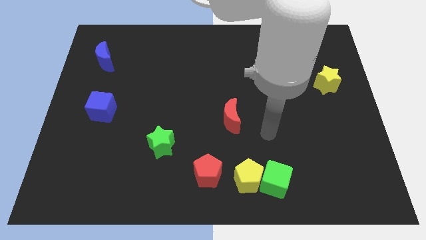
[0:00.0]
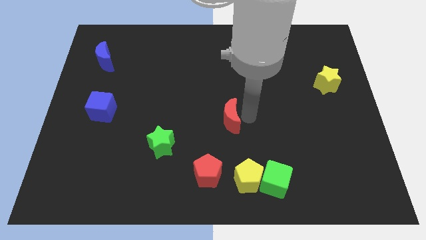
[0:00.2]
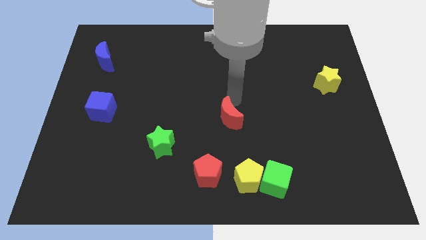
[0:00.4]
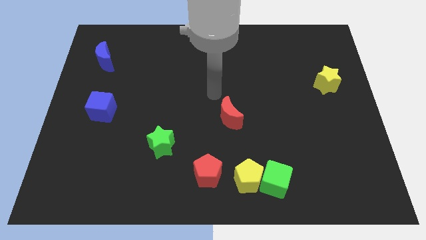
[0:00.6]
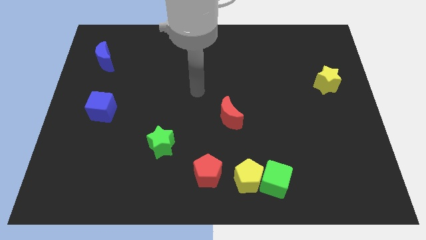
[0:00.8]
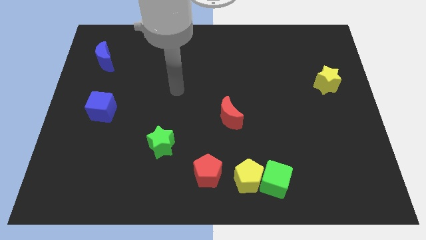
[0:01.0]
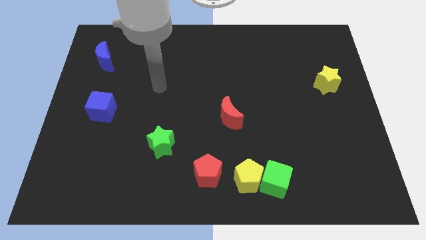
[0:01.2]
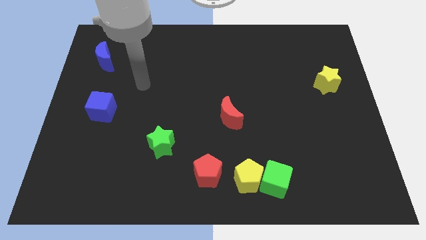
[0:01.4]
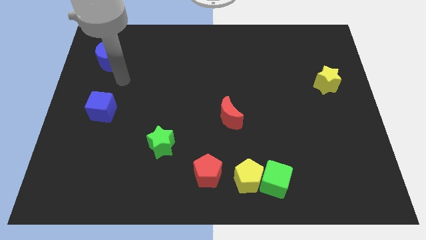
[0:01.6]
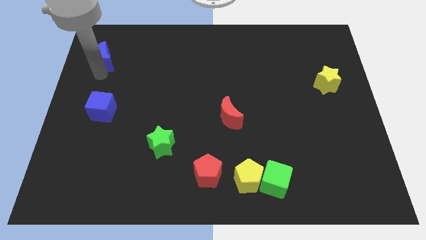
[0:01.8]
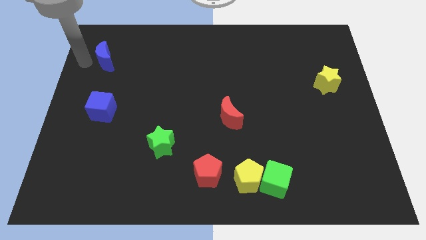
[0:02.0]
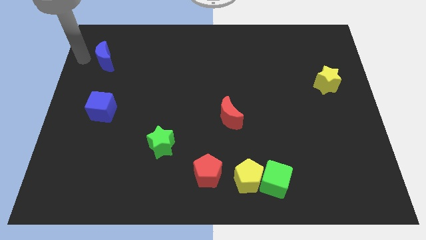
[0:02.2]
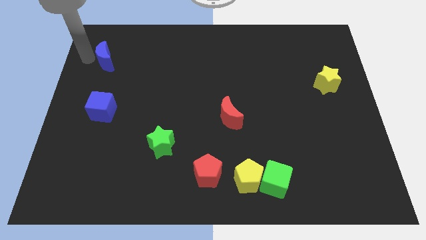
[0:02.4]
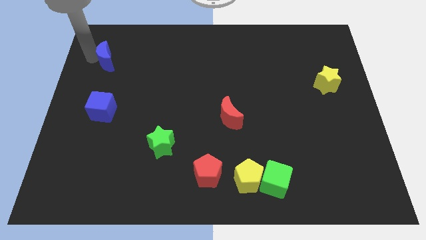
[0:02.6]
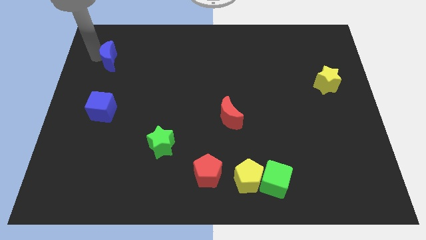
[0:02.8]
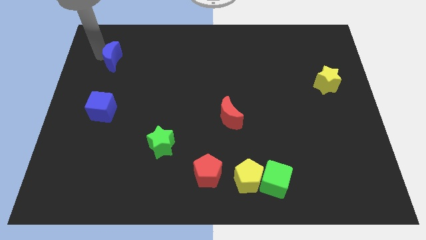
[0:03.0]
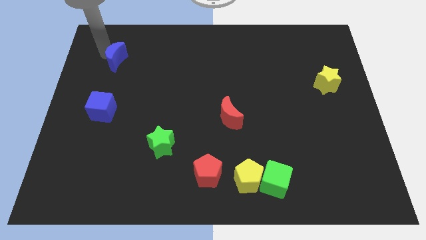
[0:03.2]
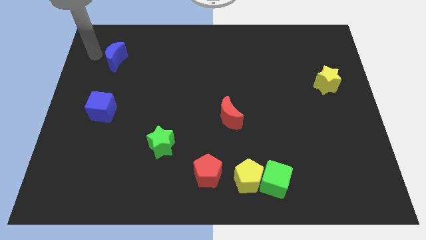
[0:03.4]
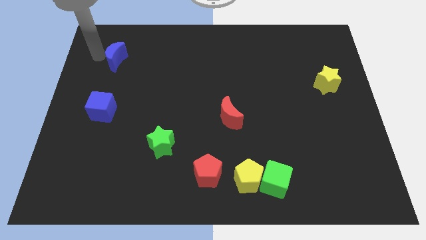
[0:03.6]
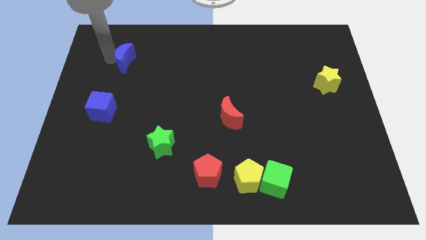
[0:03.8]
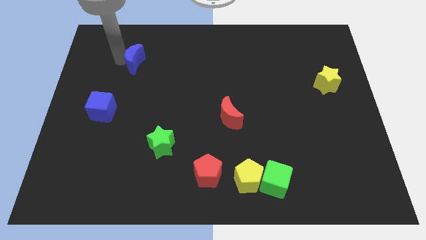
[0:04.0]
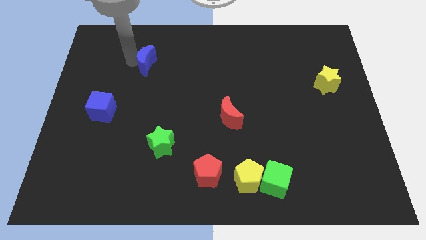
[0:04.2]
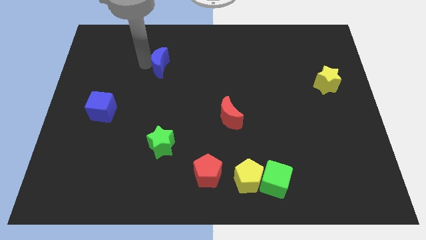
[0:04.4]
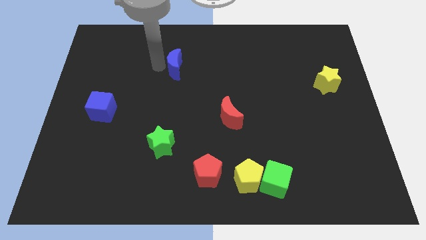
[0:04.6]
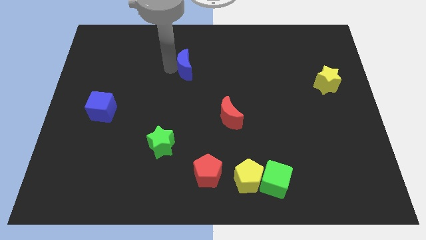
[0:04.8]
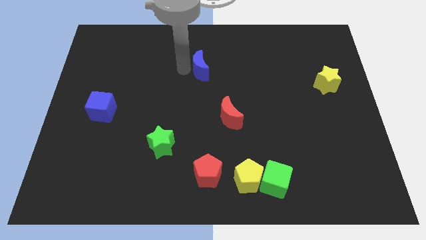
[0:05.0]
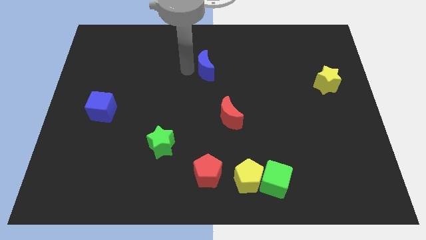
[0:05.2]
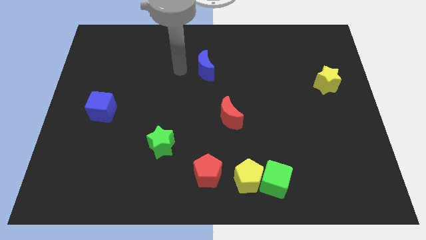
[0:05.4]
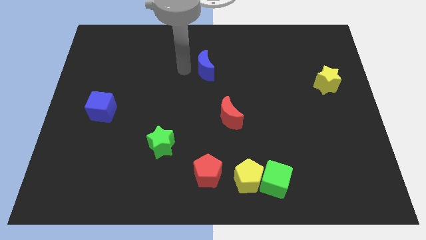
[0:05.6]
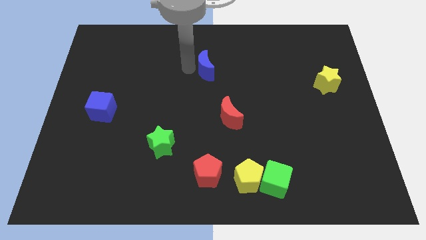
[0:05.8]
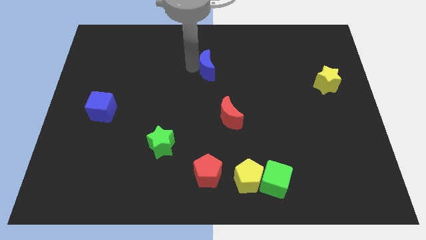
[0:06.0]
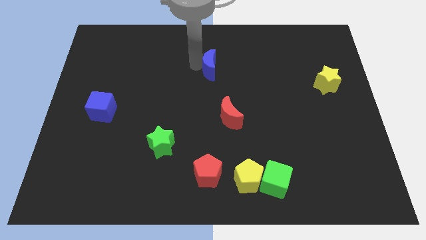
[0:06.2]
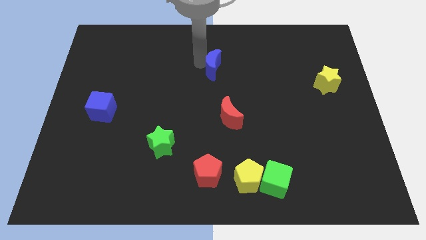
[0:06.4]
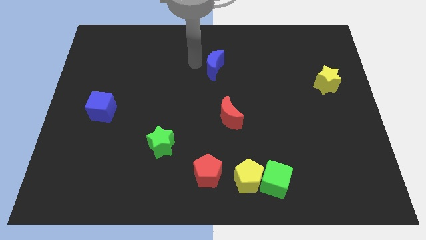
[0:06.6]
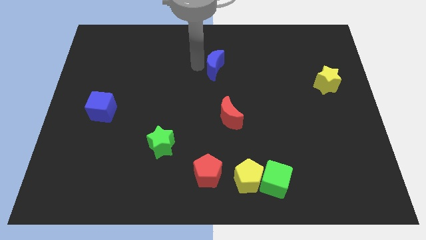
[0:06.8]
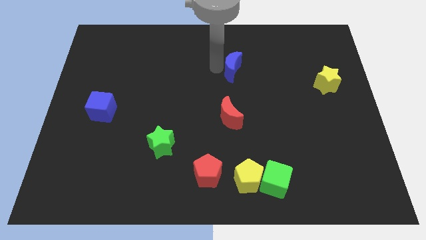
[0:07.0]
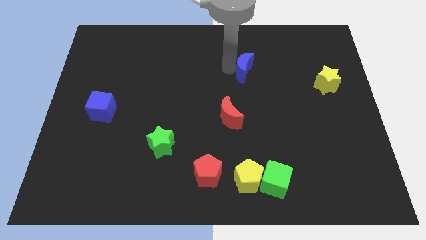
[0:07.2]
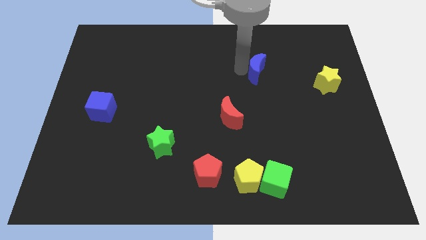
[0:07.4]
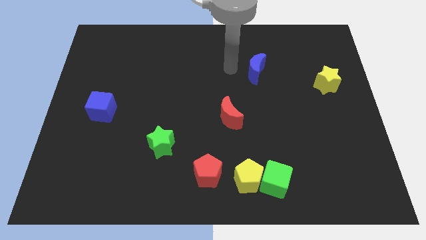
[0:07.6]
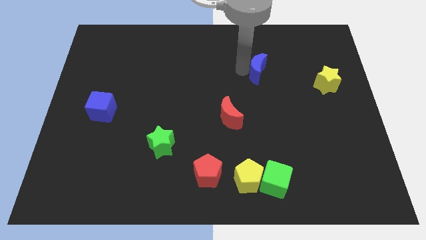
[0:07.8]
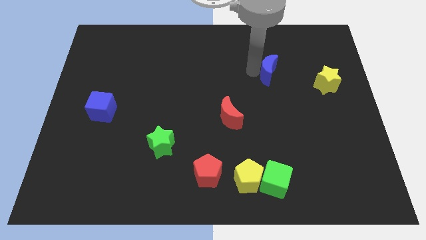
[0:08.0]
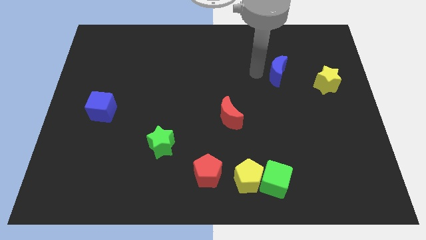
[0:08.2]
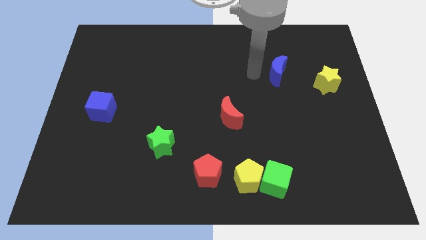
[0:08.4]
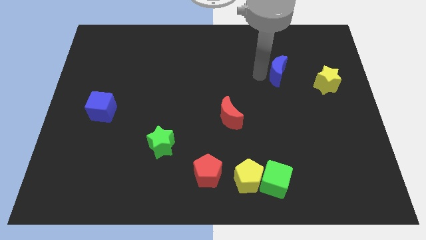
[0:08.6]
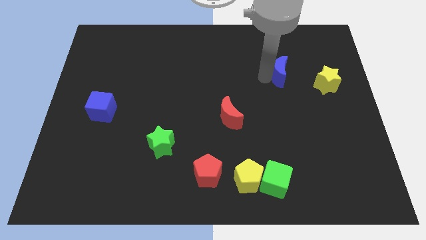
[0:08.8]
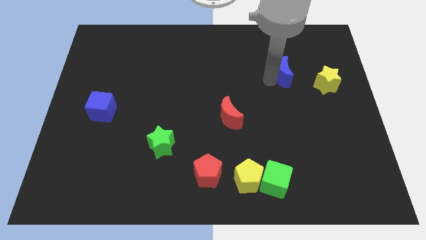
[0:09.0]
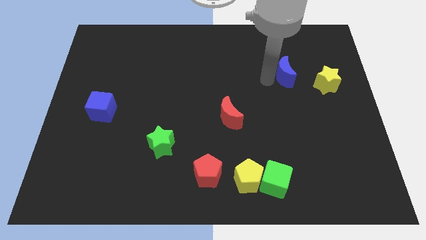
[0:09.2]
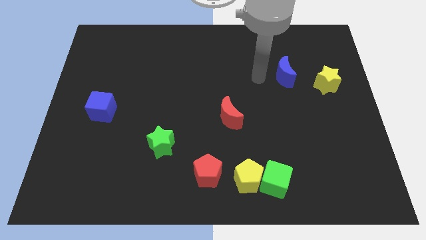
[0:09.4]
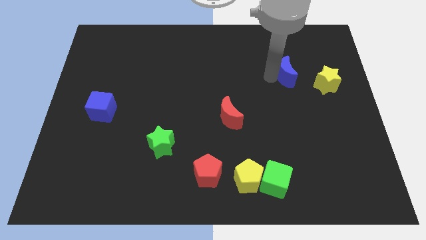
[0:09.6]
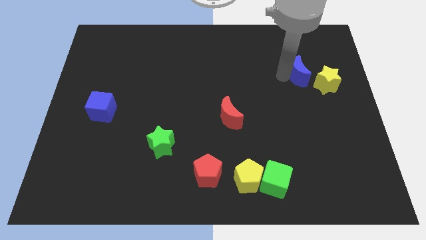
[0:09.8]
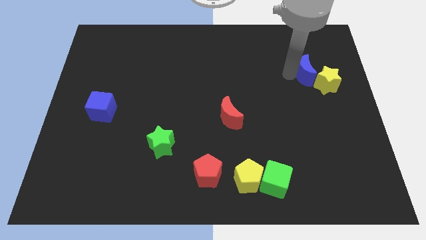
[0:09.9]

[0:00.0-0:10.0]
push the blue moon to the yellow star

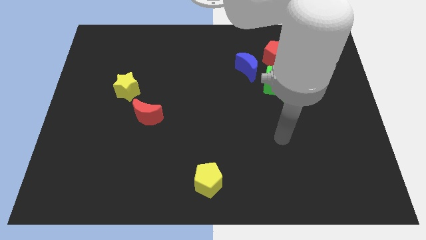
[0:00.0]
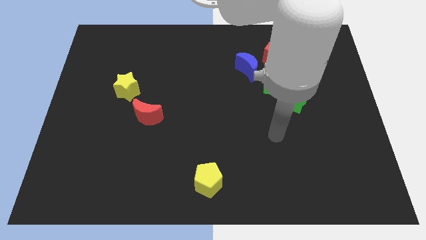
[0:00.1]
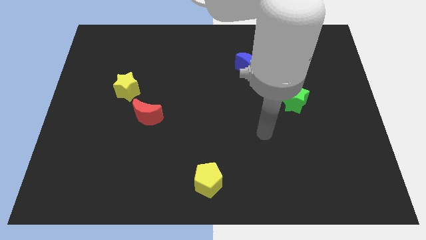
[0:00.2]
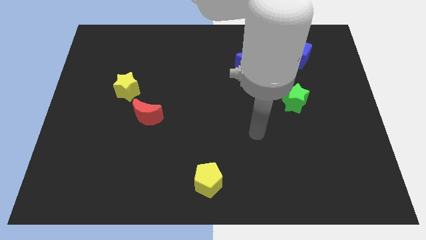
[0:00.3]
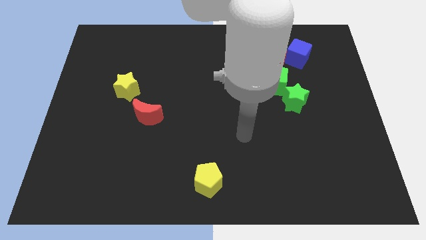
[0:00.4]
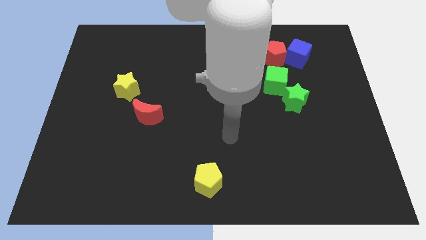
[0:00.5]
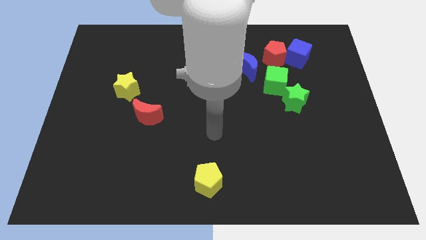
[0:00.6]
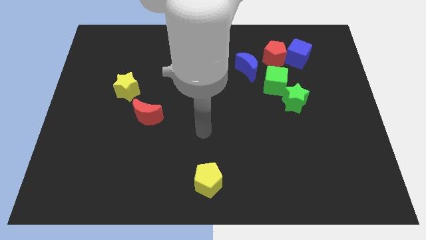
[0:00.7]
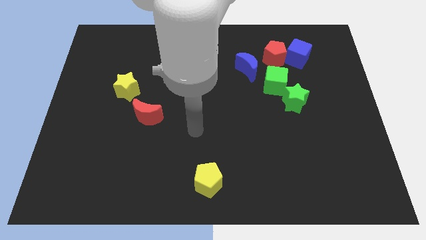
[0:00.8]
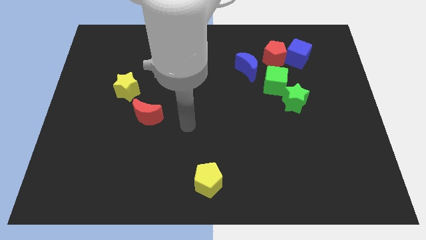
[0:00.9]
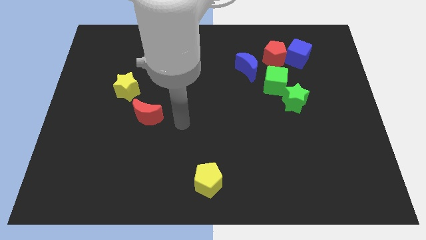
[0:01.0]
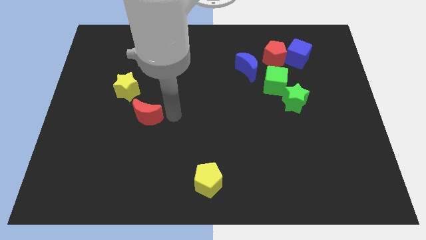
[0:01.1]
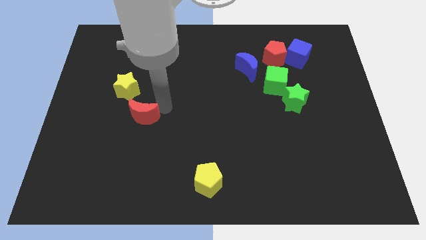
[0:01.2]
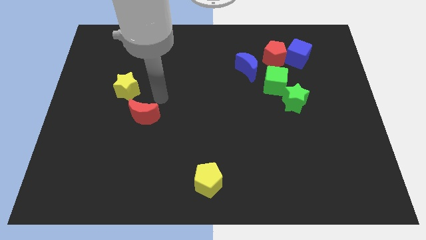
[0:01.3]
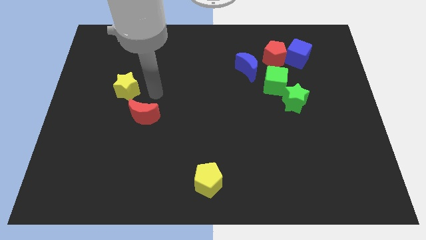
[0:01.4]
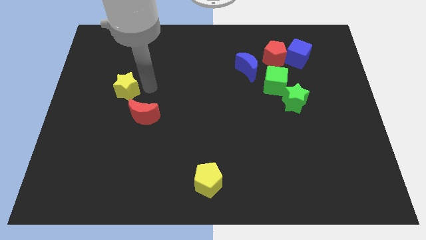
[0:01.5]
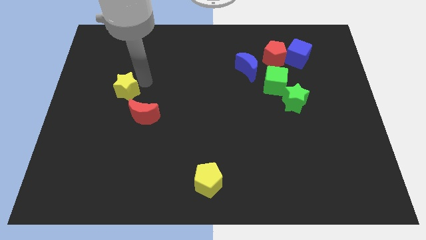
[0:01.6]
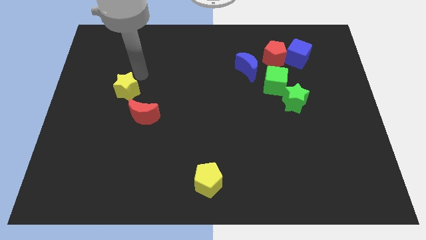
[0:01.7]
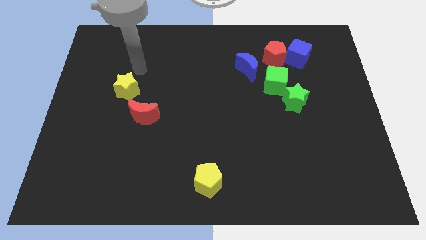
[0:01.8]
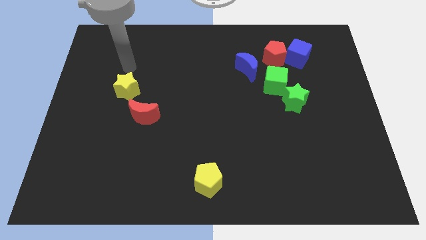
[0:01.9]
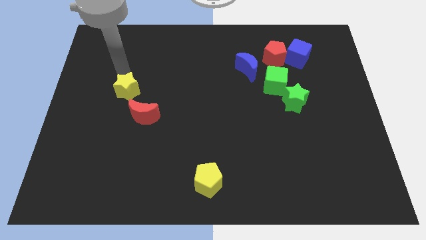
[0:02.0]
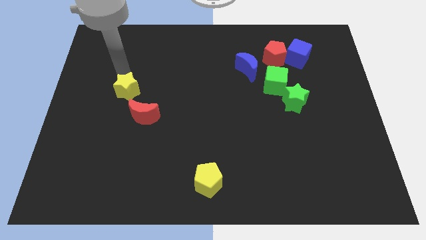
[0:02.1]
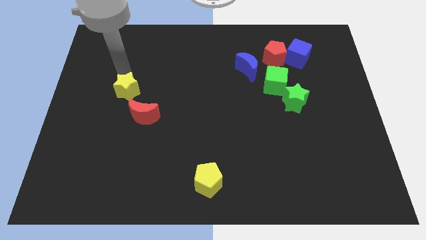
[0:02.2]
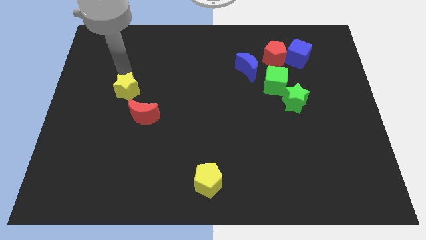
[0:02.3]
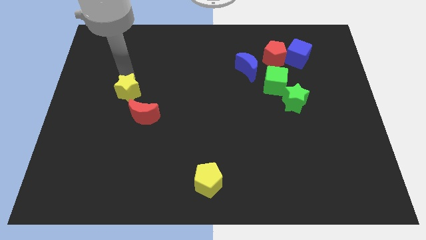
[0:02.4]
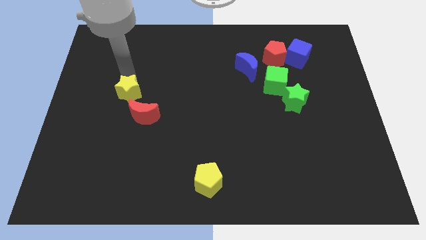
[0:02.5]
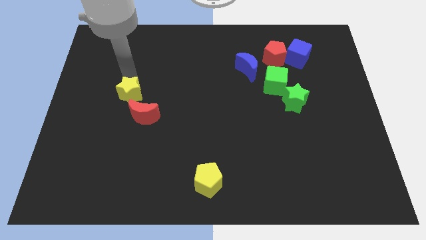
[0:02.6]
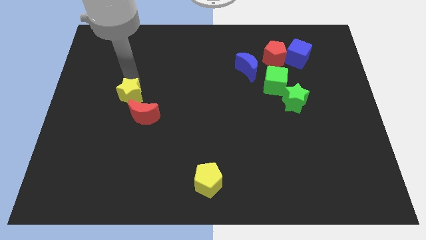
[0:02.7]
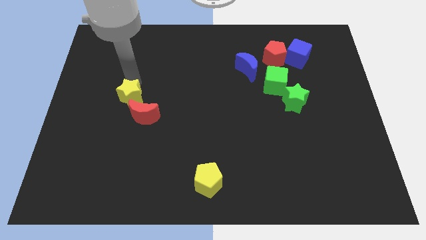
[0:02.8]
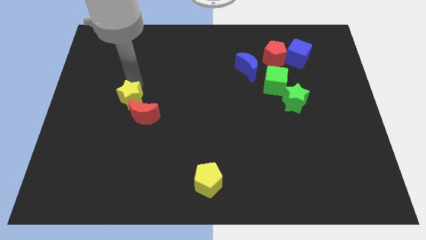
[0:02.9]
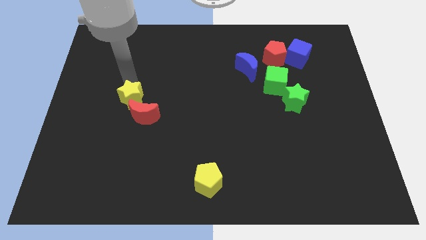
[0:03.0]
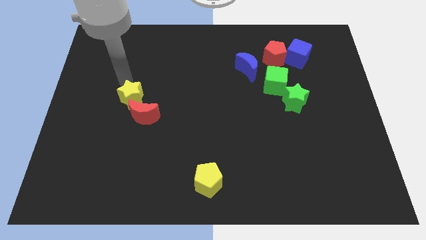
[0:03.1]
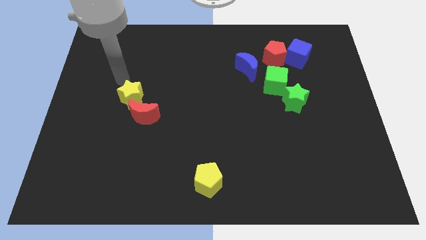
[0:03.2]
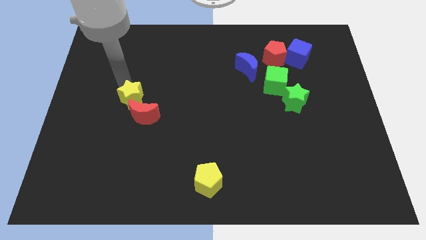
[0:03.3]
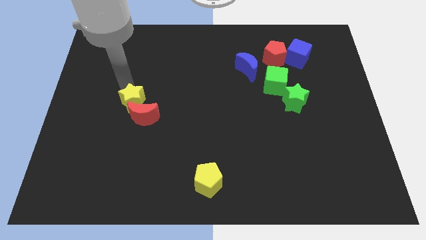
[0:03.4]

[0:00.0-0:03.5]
slide the yellow star close to the red moon
